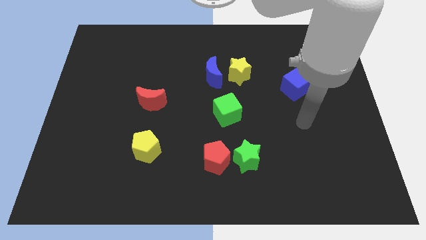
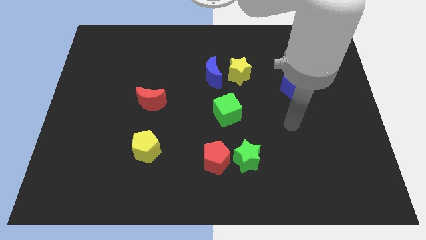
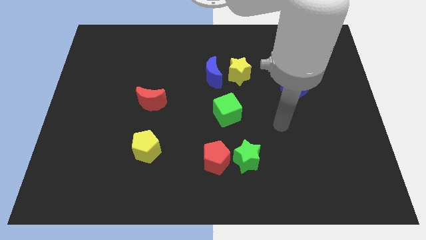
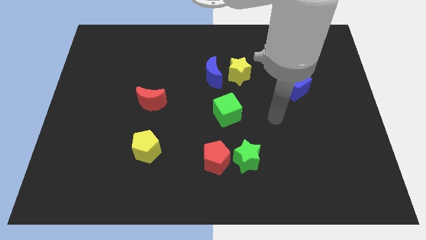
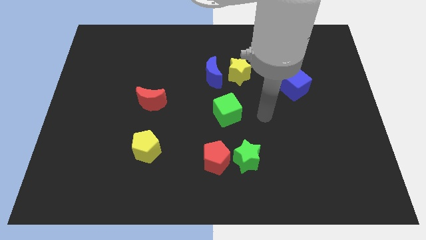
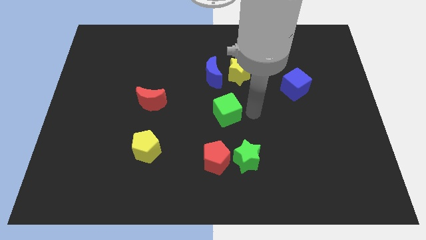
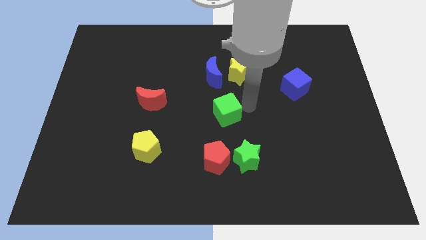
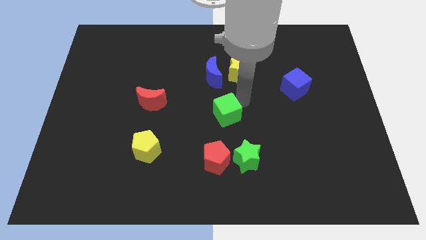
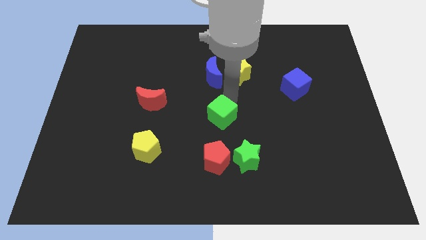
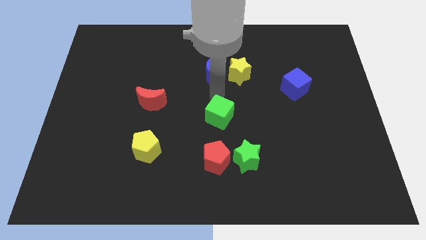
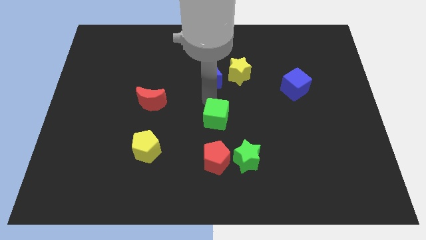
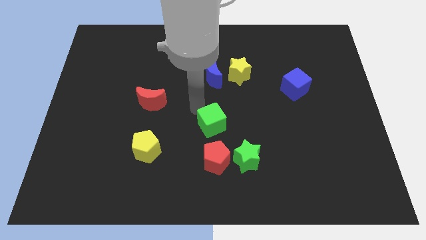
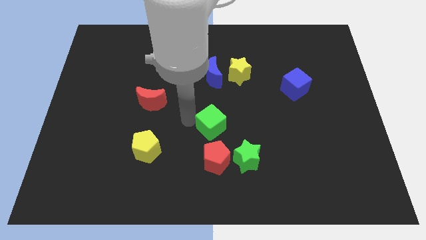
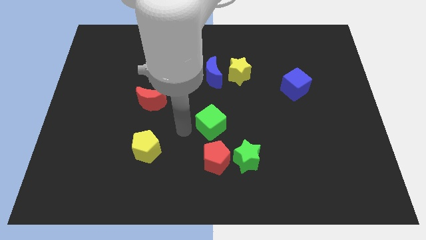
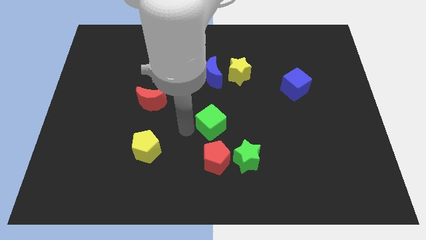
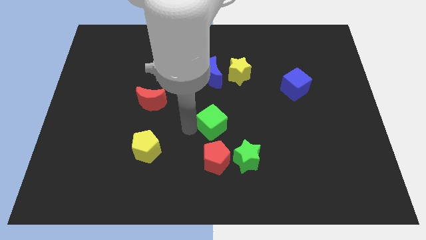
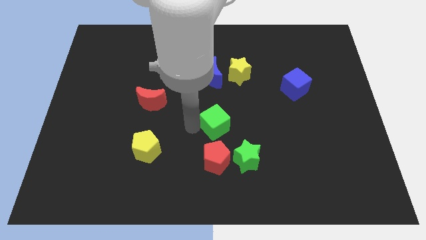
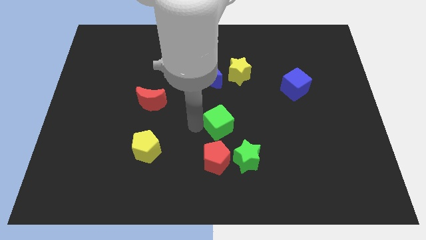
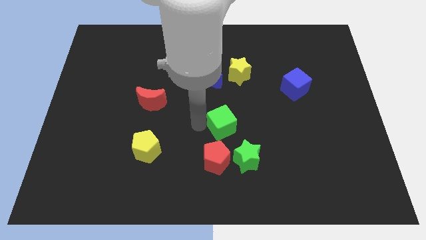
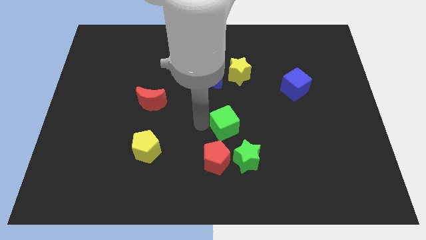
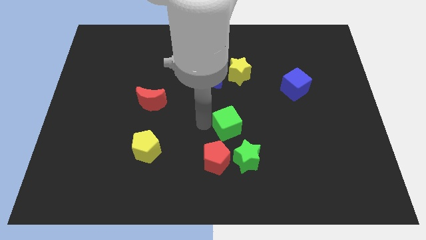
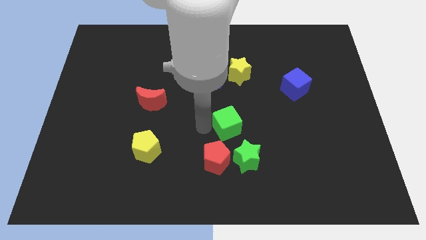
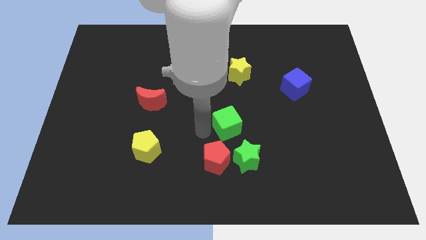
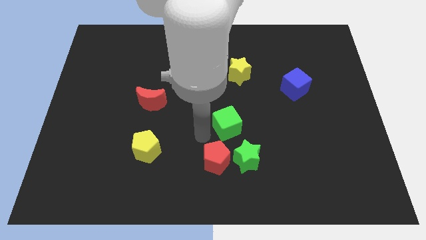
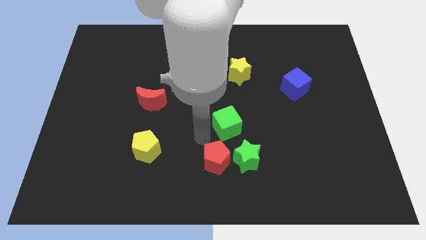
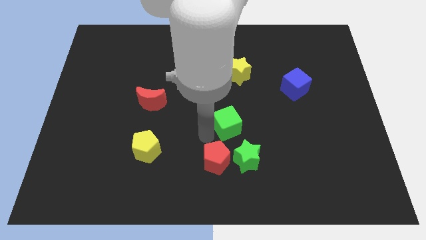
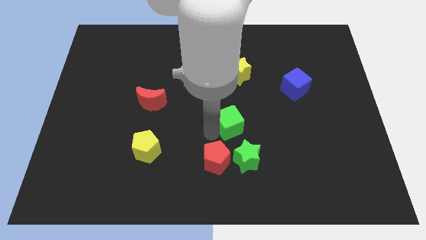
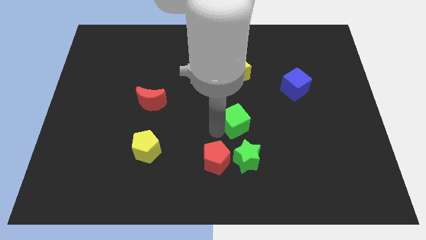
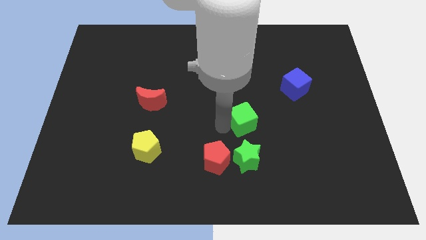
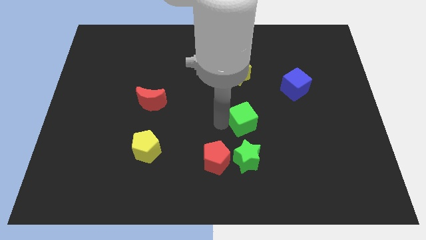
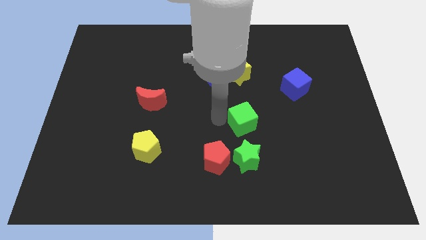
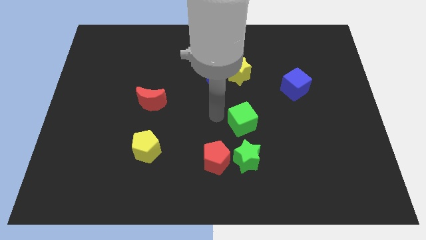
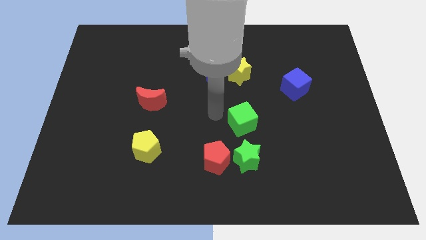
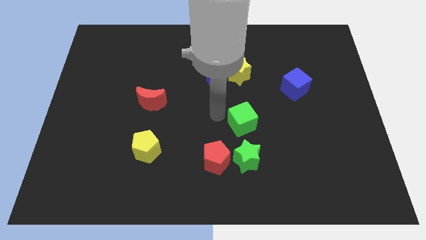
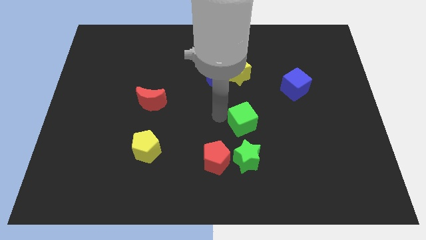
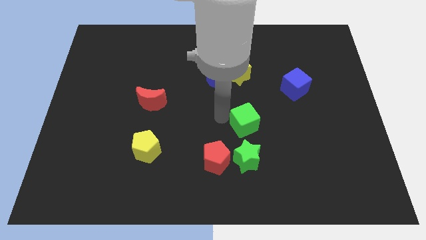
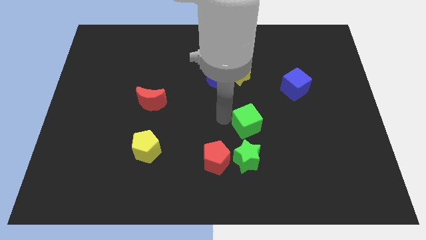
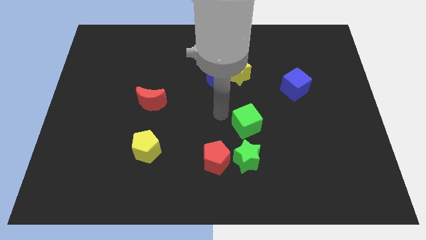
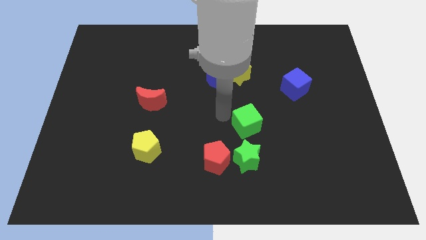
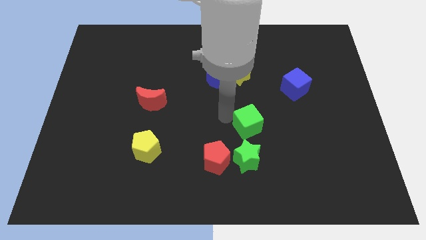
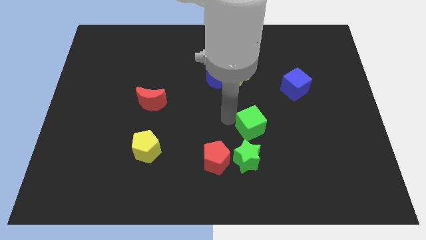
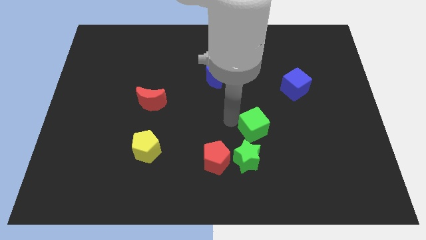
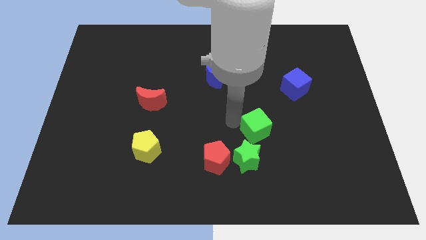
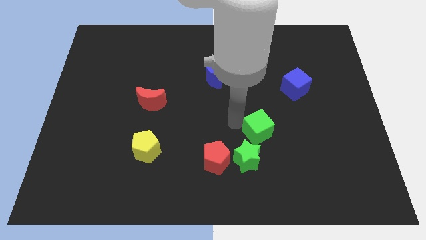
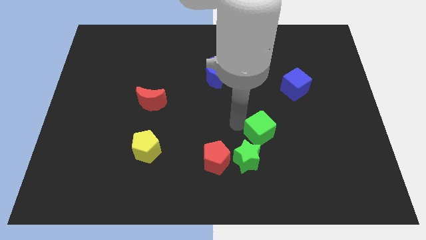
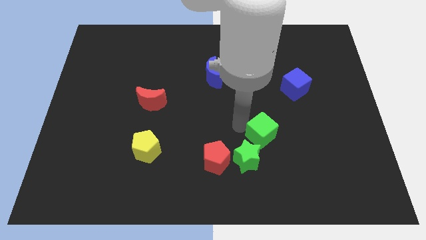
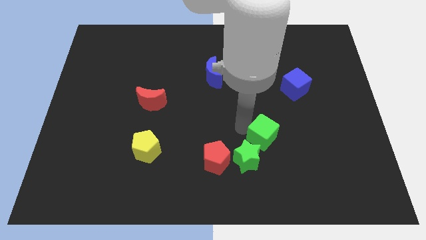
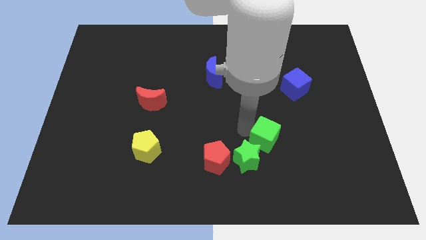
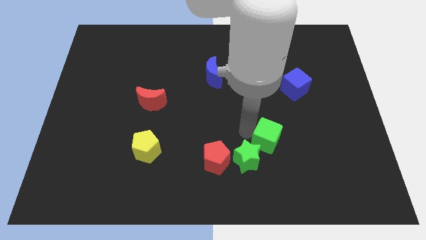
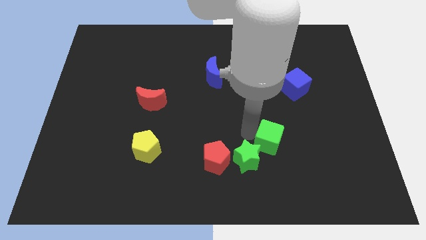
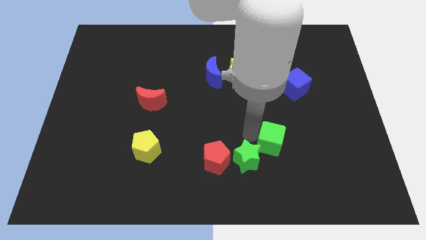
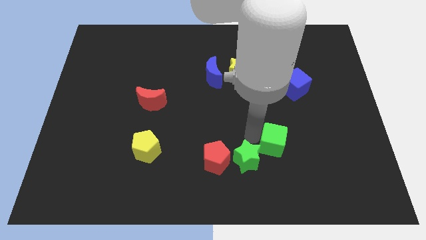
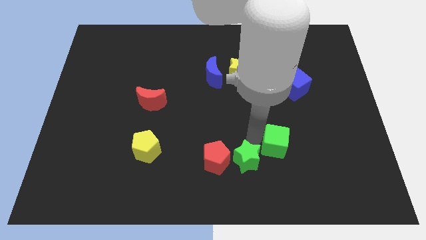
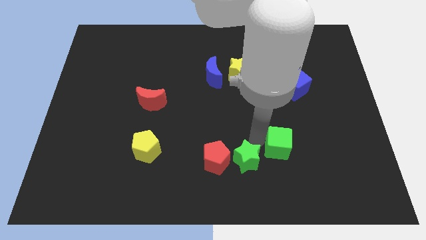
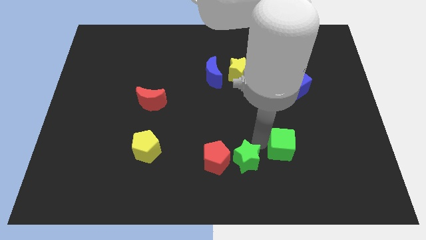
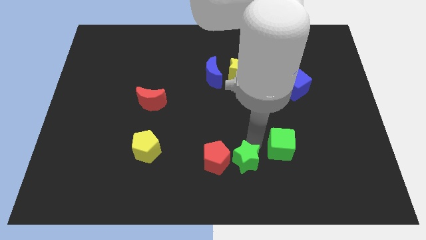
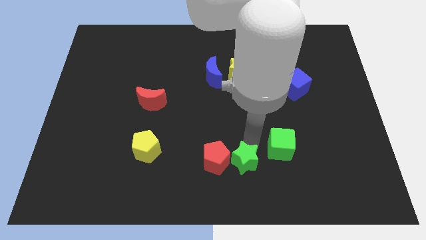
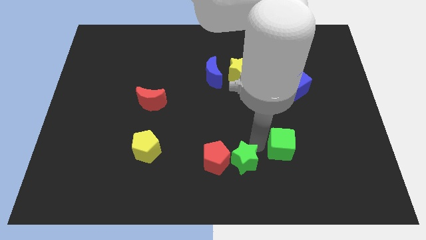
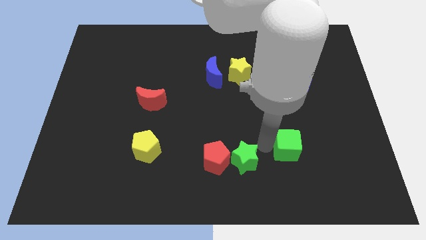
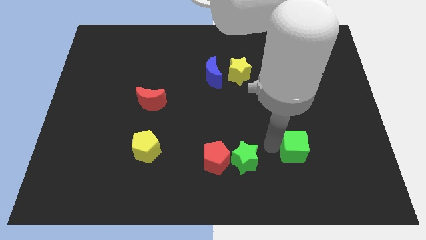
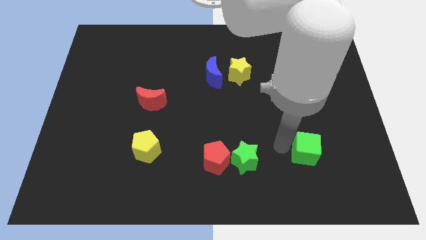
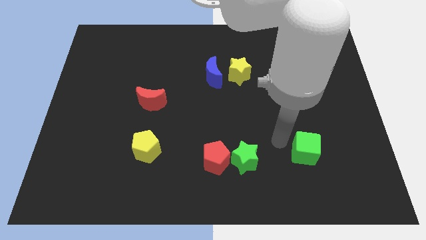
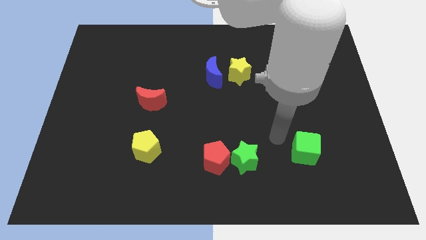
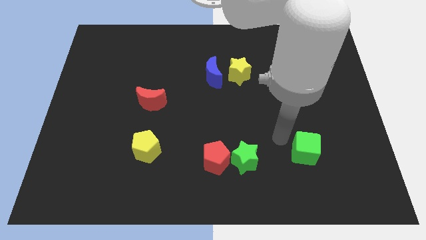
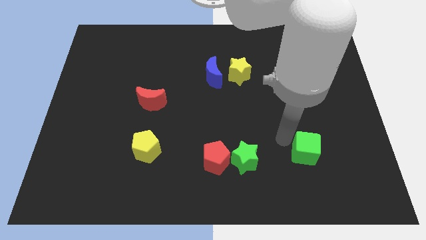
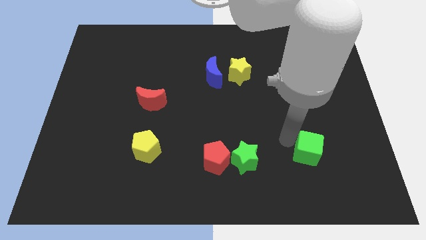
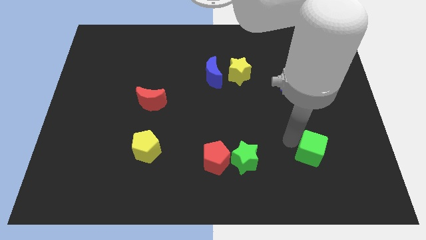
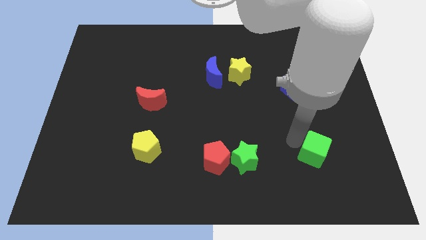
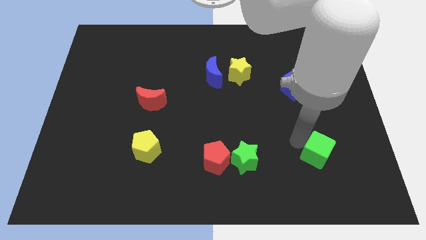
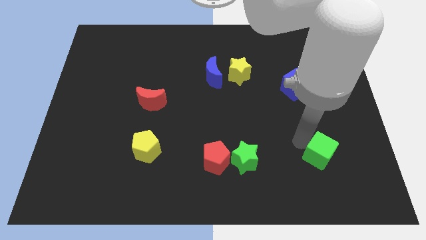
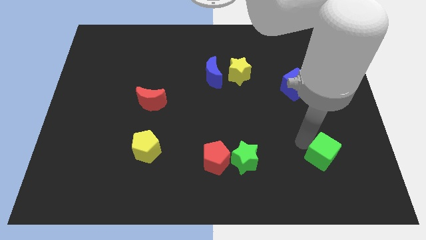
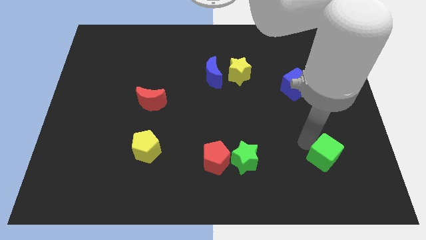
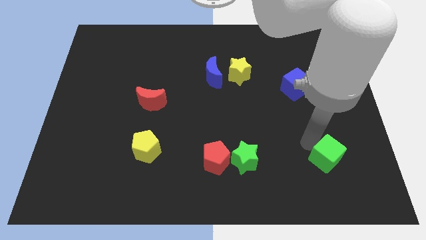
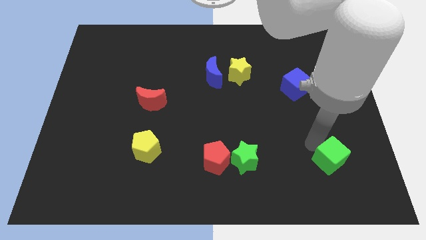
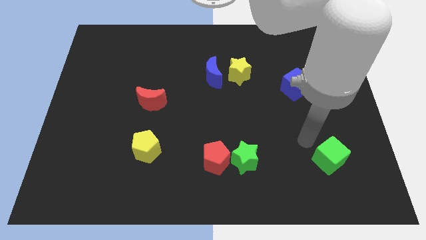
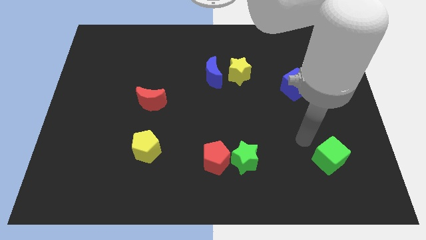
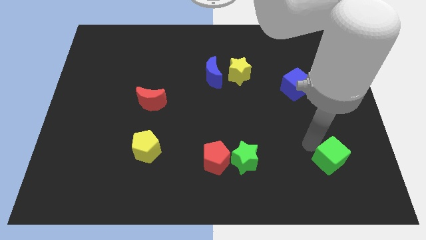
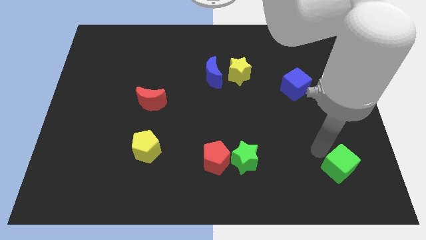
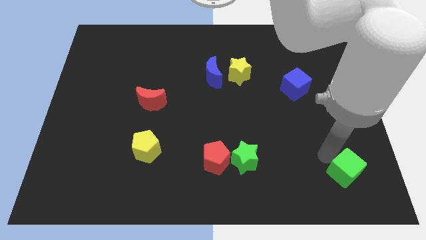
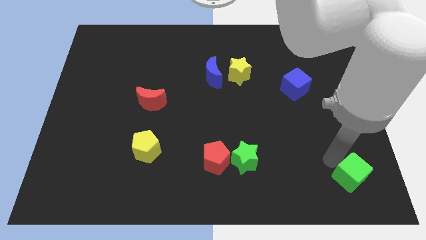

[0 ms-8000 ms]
push the green cube to the bottom right corner
